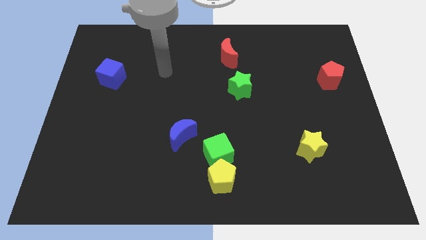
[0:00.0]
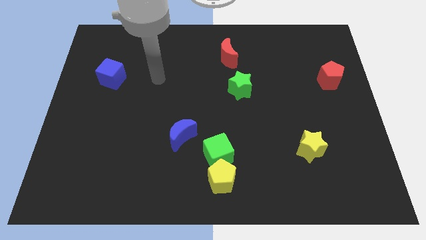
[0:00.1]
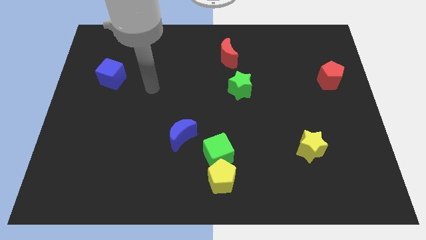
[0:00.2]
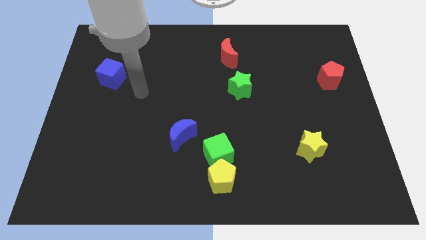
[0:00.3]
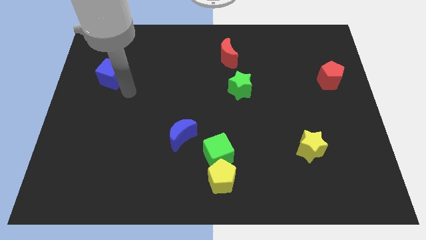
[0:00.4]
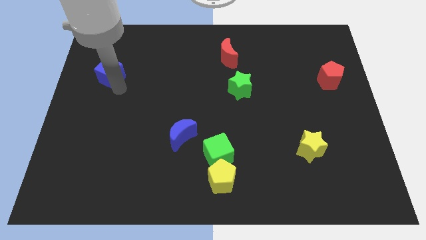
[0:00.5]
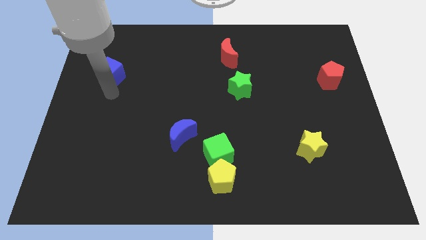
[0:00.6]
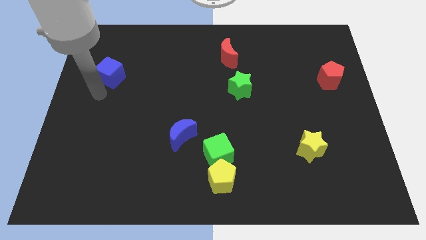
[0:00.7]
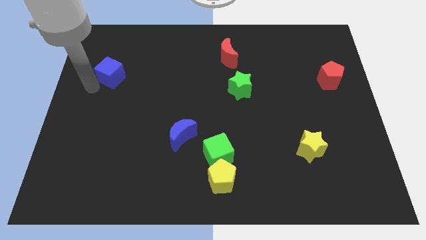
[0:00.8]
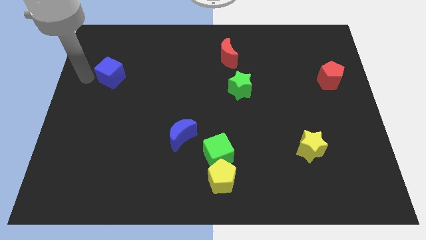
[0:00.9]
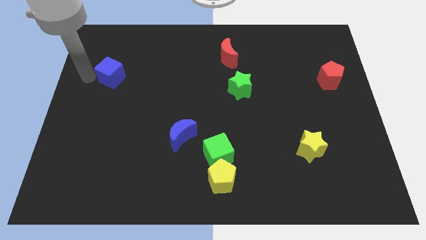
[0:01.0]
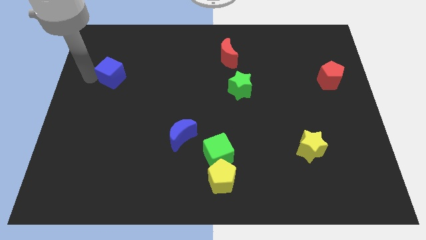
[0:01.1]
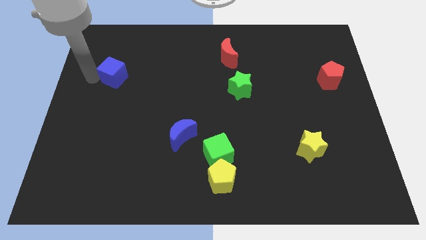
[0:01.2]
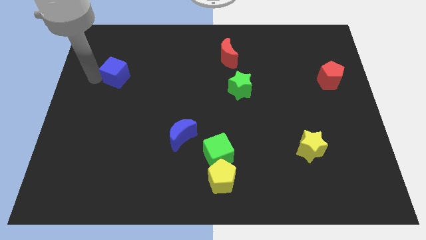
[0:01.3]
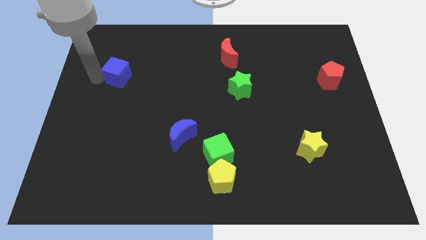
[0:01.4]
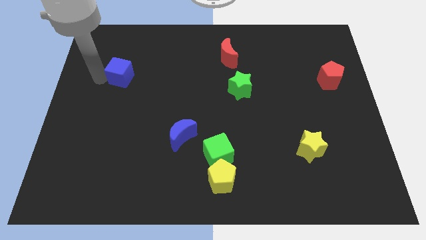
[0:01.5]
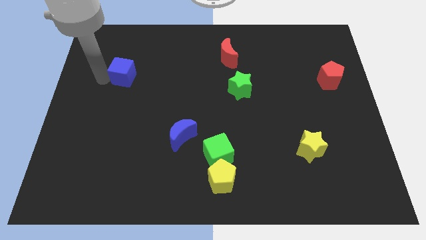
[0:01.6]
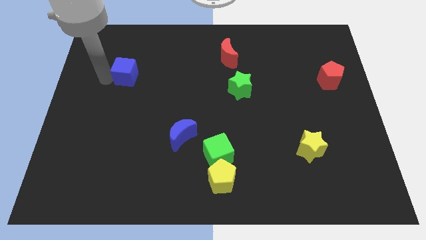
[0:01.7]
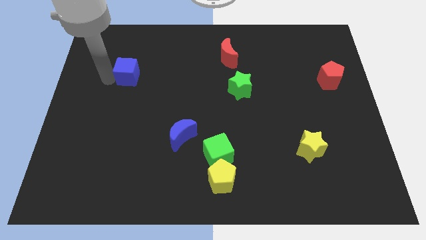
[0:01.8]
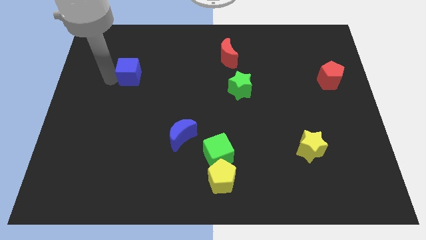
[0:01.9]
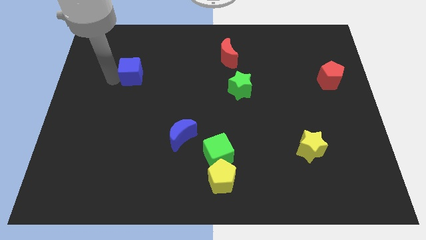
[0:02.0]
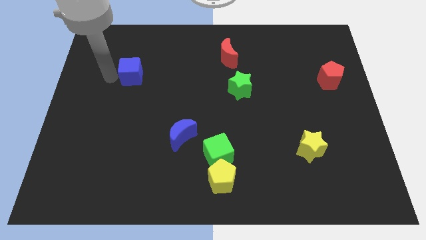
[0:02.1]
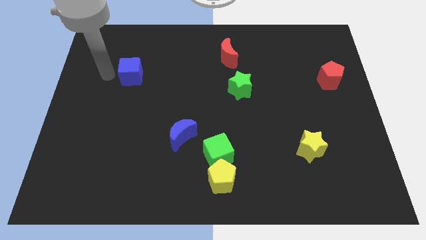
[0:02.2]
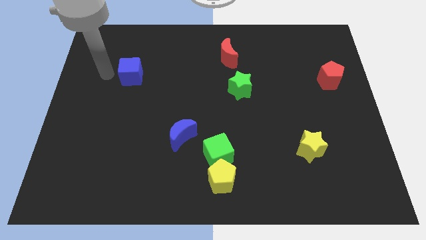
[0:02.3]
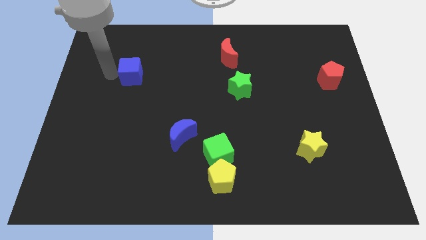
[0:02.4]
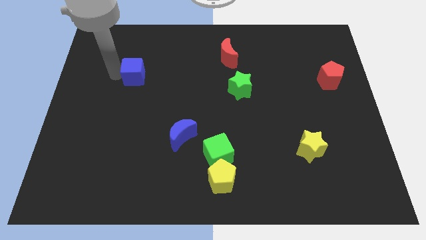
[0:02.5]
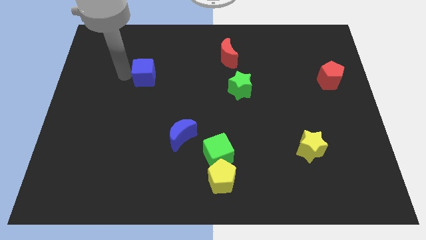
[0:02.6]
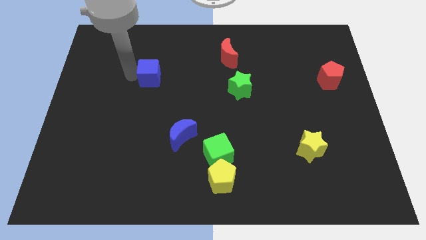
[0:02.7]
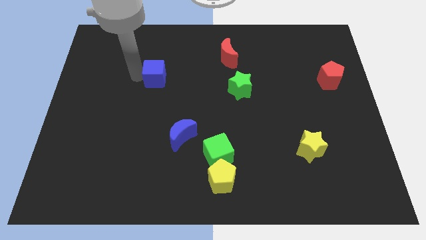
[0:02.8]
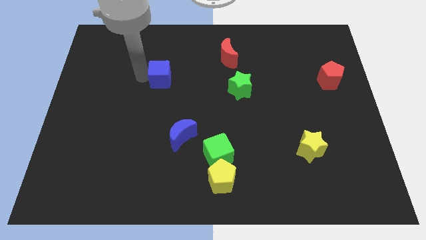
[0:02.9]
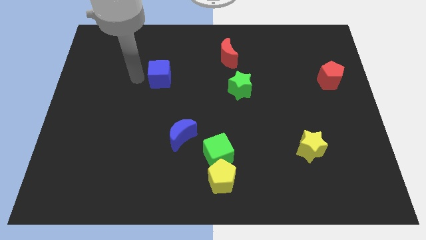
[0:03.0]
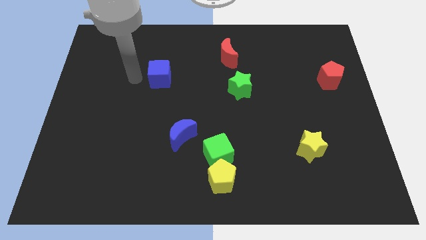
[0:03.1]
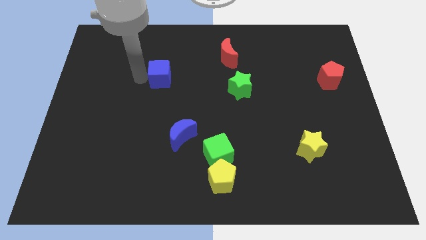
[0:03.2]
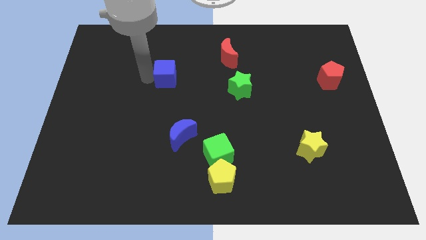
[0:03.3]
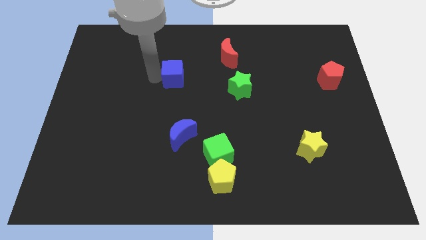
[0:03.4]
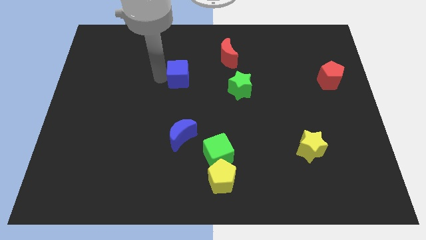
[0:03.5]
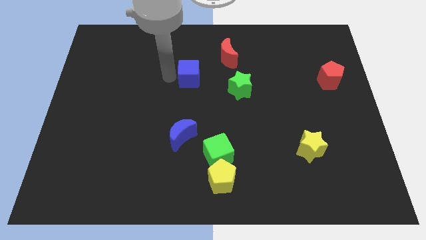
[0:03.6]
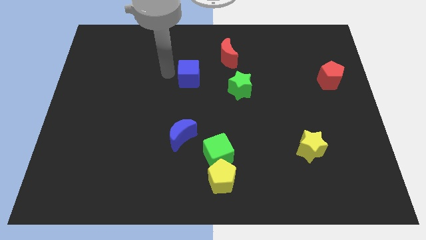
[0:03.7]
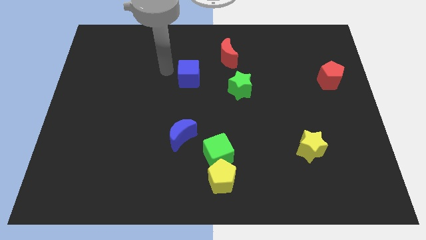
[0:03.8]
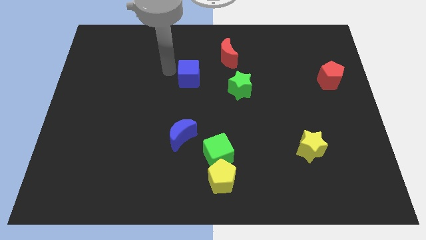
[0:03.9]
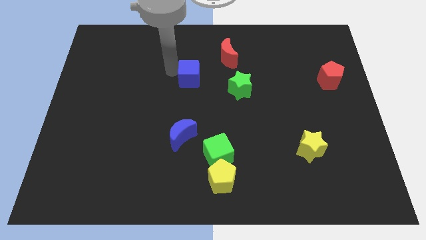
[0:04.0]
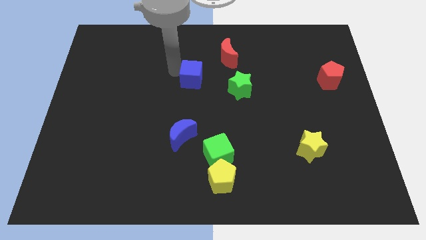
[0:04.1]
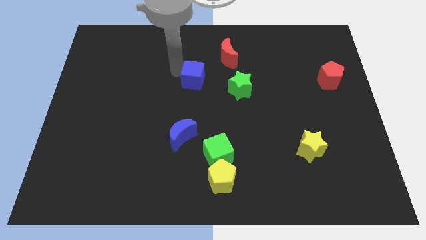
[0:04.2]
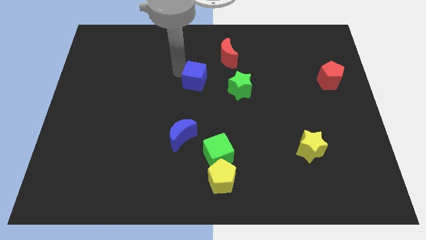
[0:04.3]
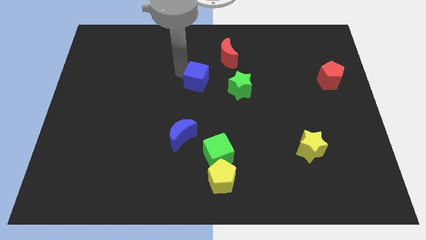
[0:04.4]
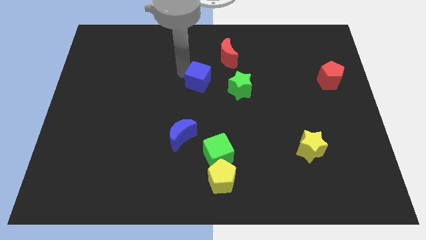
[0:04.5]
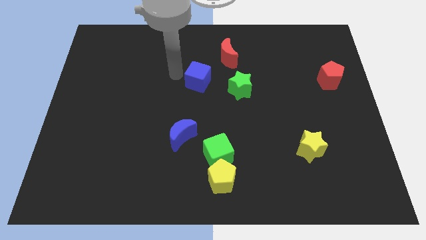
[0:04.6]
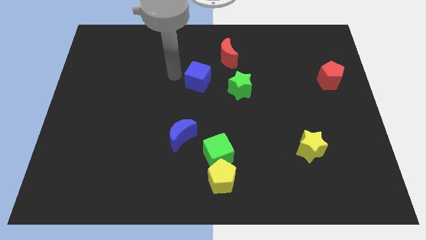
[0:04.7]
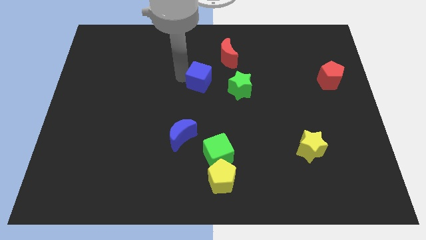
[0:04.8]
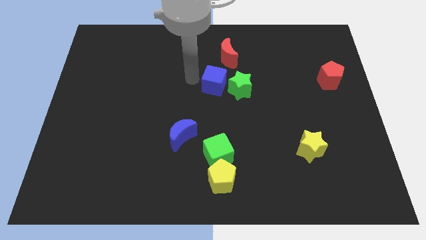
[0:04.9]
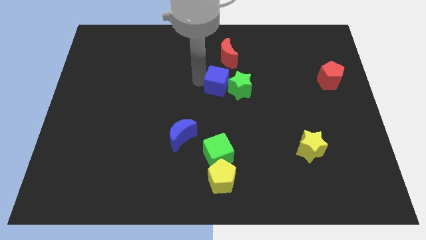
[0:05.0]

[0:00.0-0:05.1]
put the blue cube close to the green star

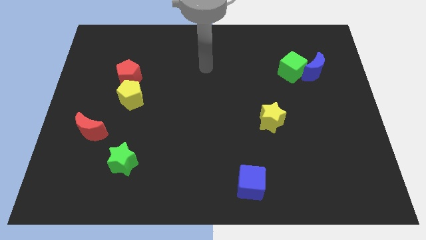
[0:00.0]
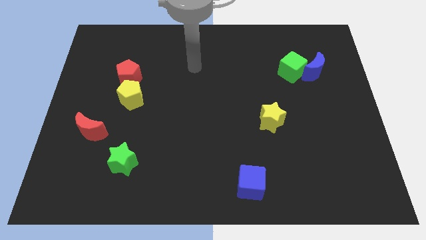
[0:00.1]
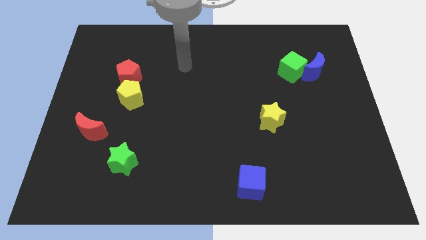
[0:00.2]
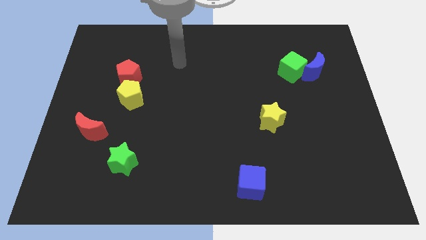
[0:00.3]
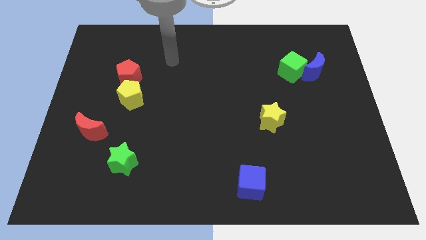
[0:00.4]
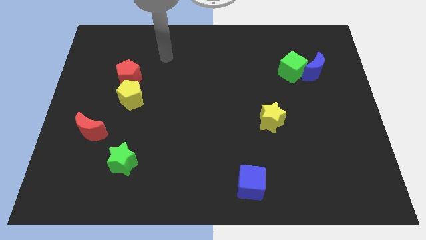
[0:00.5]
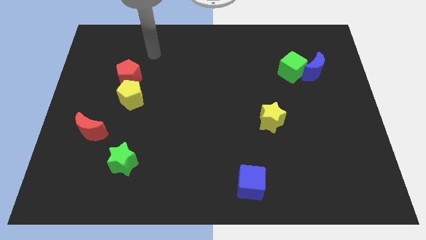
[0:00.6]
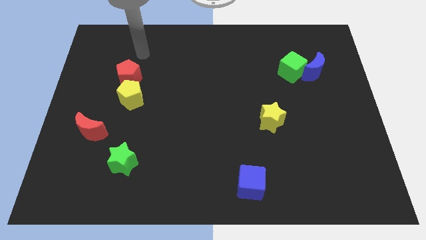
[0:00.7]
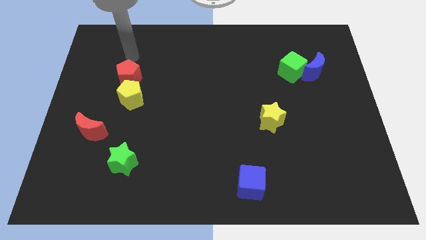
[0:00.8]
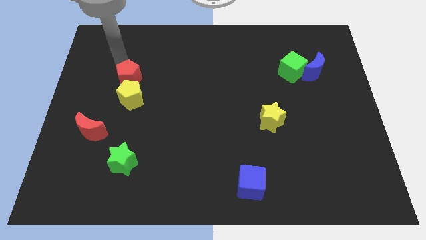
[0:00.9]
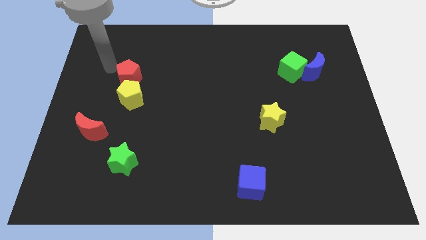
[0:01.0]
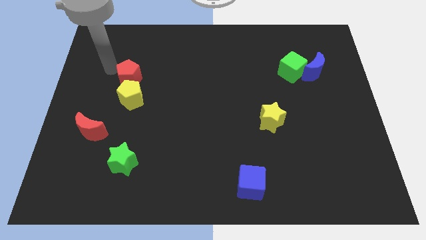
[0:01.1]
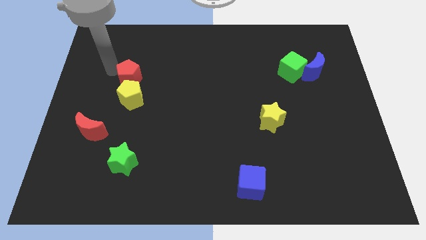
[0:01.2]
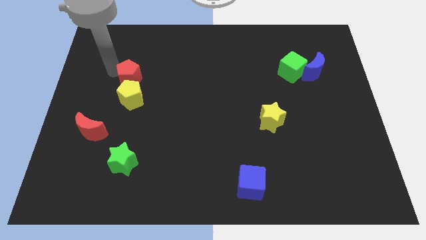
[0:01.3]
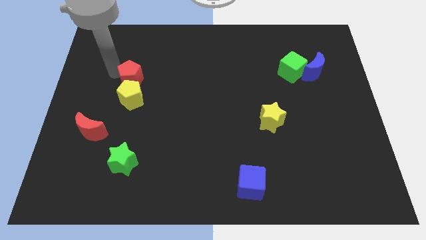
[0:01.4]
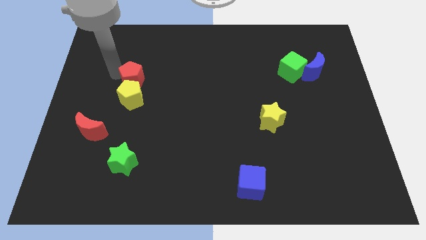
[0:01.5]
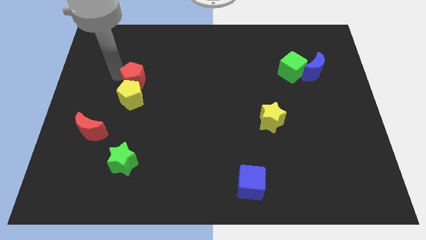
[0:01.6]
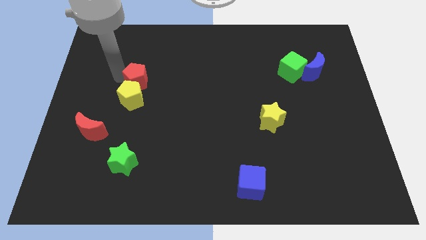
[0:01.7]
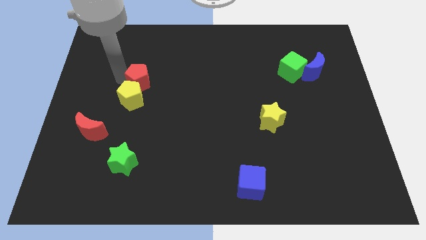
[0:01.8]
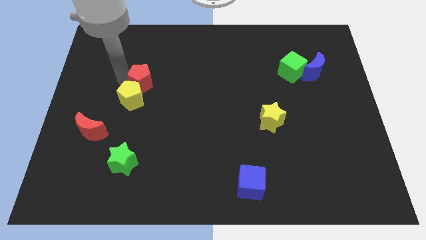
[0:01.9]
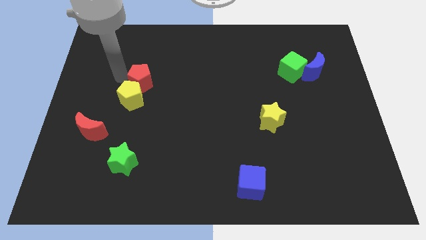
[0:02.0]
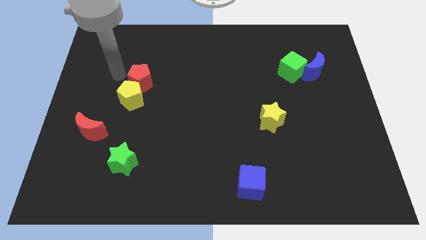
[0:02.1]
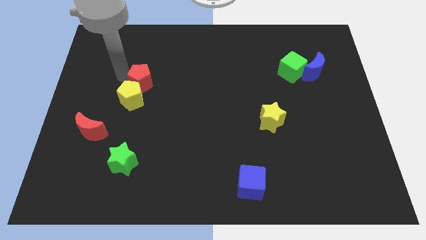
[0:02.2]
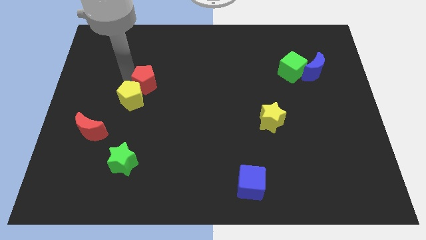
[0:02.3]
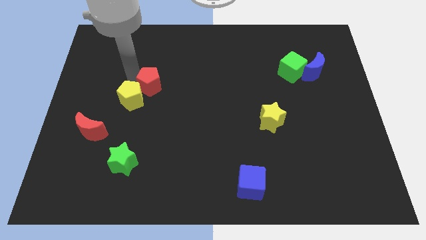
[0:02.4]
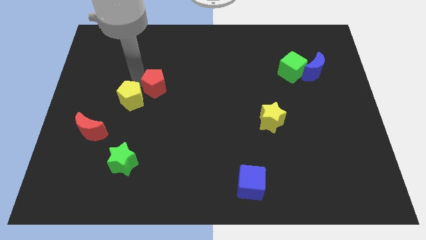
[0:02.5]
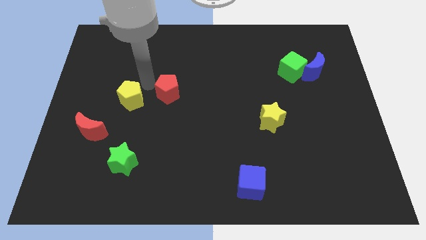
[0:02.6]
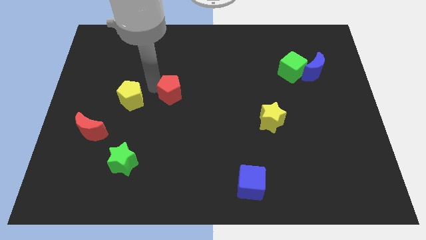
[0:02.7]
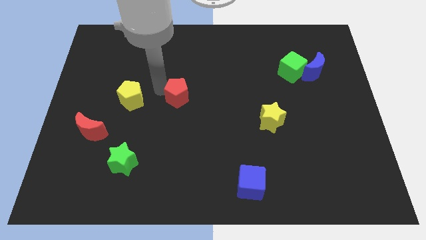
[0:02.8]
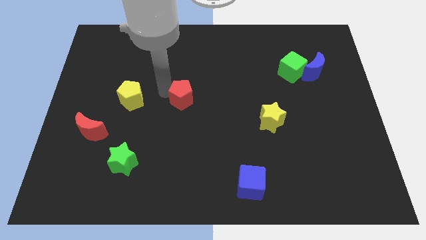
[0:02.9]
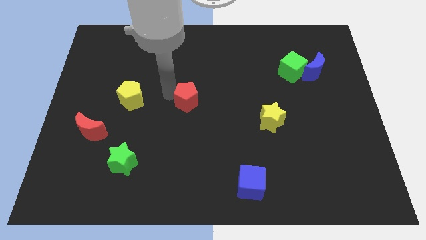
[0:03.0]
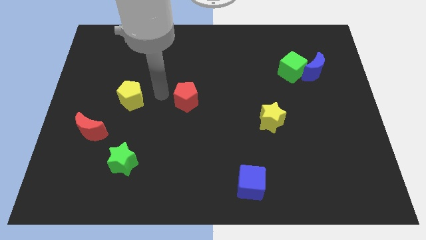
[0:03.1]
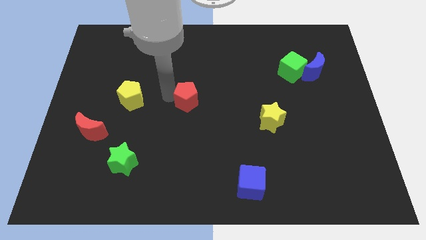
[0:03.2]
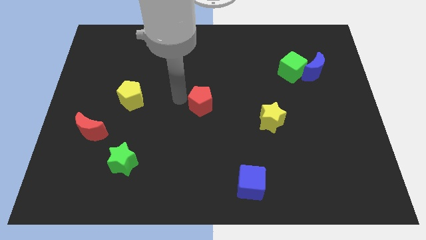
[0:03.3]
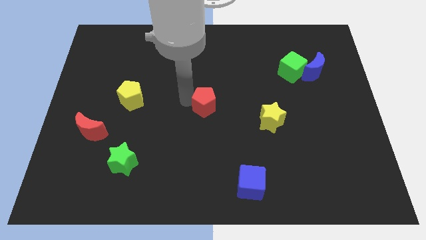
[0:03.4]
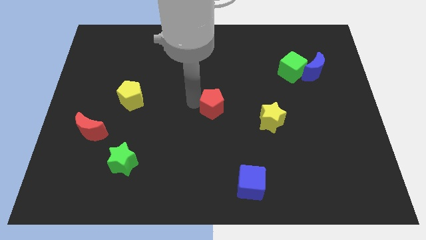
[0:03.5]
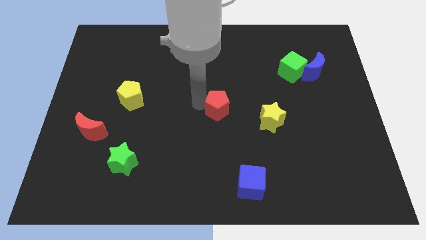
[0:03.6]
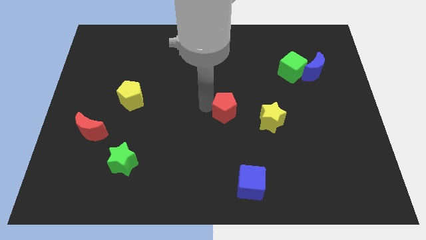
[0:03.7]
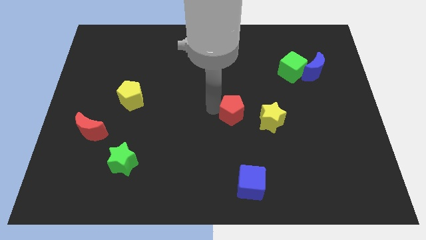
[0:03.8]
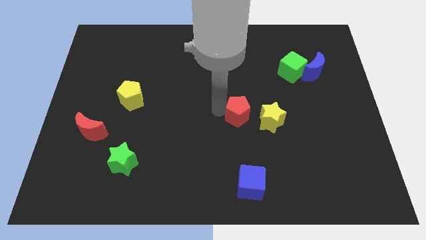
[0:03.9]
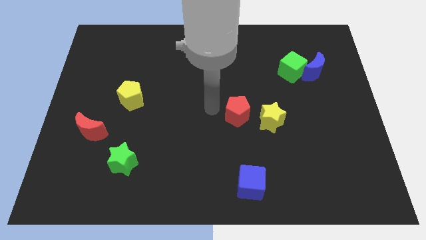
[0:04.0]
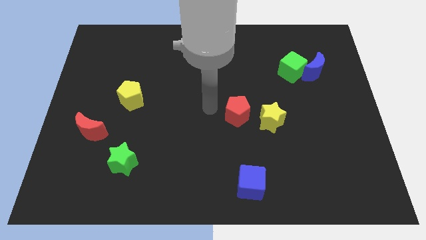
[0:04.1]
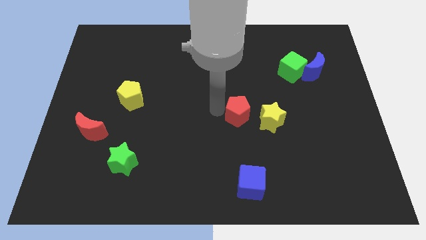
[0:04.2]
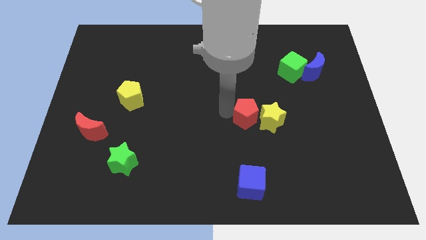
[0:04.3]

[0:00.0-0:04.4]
move the red pentagon close to the yellow star
